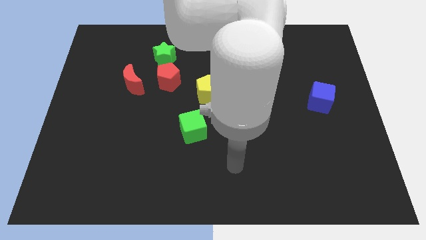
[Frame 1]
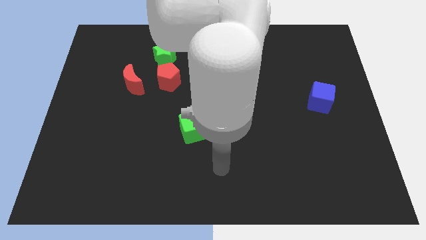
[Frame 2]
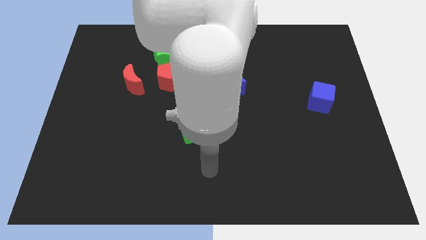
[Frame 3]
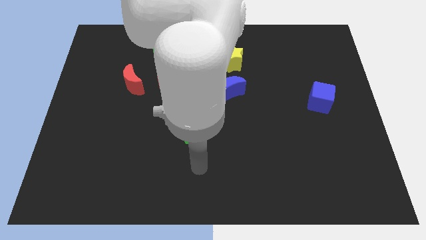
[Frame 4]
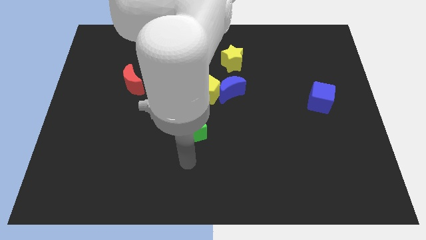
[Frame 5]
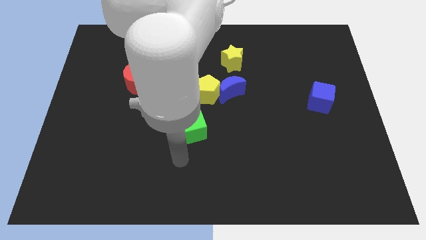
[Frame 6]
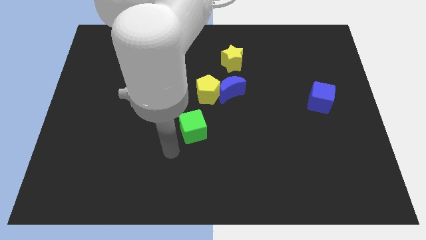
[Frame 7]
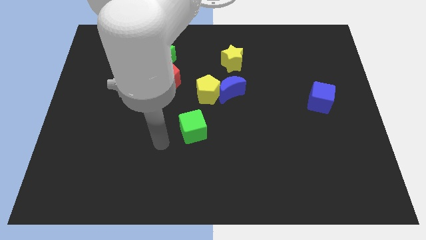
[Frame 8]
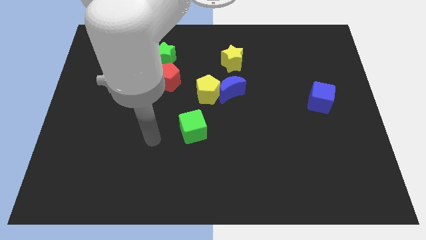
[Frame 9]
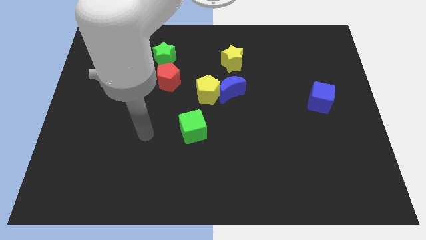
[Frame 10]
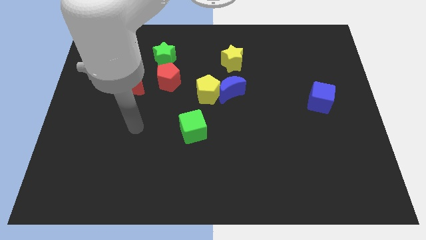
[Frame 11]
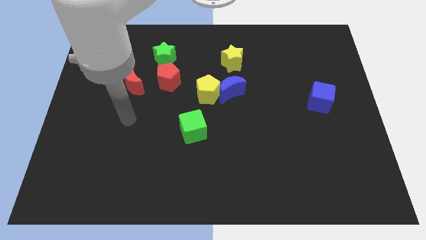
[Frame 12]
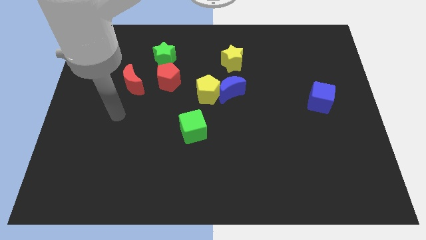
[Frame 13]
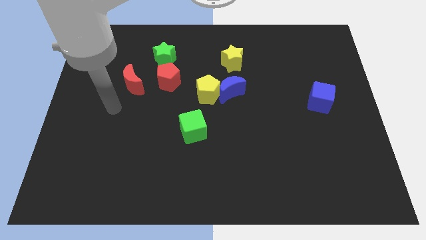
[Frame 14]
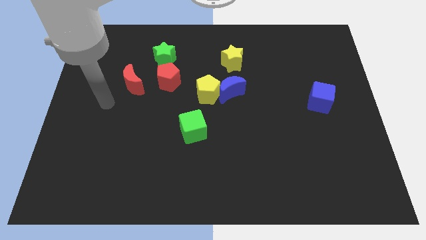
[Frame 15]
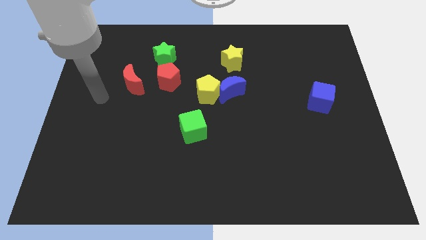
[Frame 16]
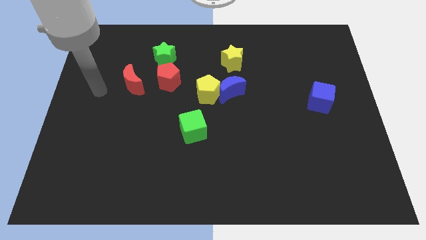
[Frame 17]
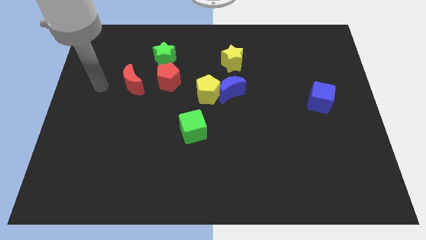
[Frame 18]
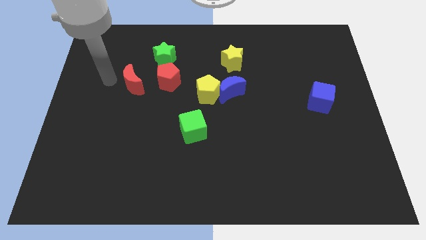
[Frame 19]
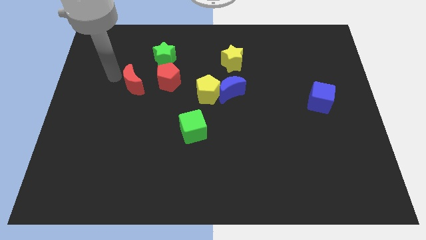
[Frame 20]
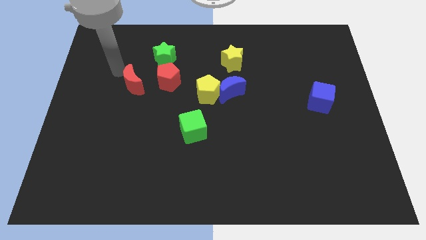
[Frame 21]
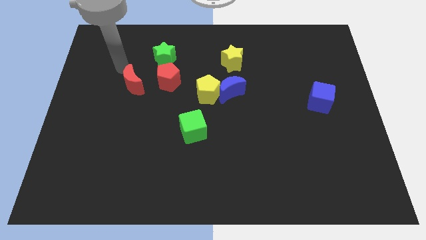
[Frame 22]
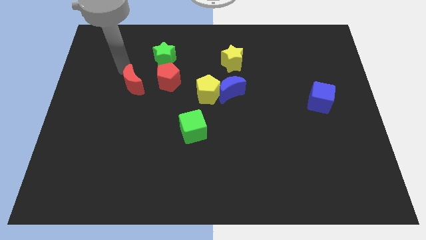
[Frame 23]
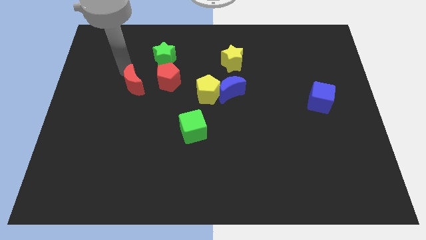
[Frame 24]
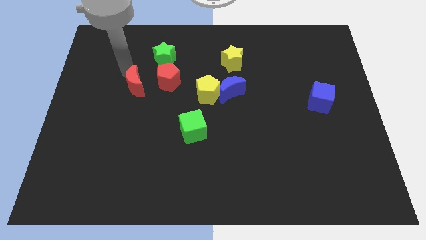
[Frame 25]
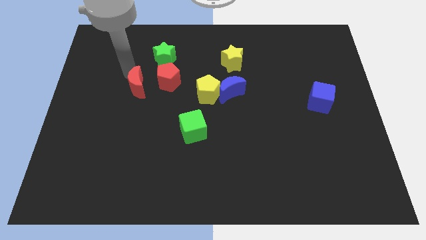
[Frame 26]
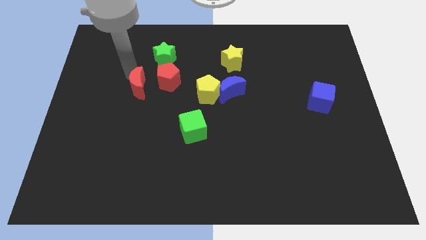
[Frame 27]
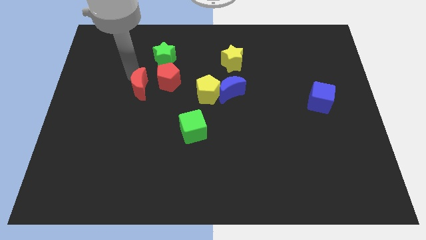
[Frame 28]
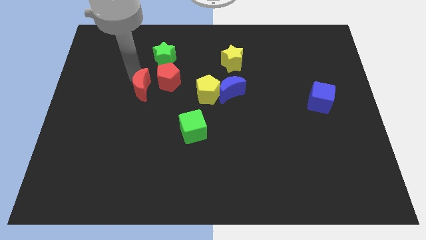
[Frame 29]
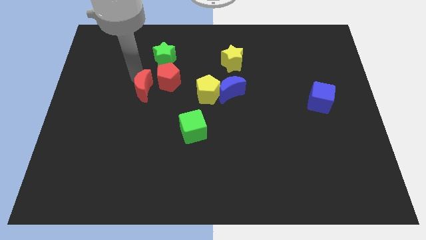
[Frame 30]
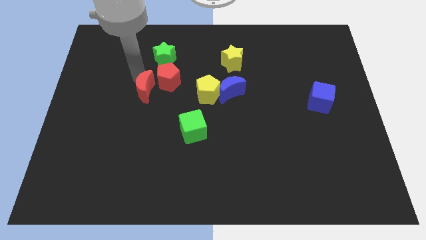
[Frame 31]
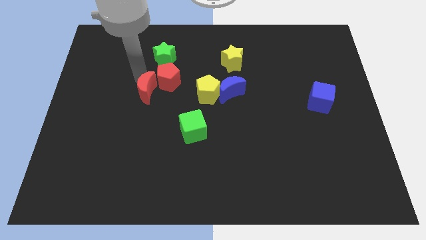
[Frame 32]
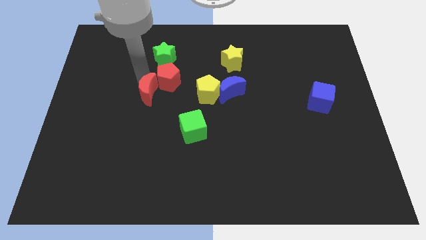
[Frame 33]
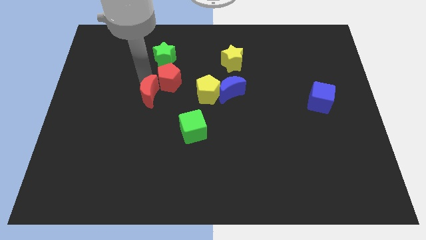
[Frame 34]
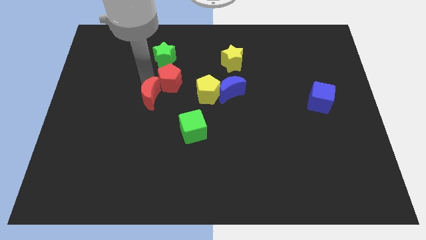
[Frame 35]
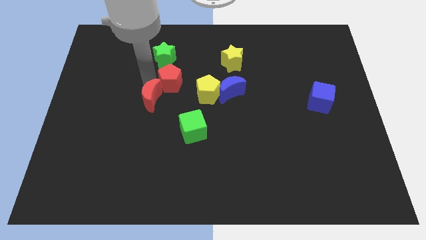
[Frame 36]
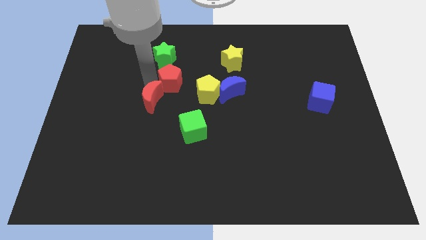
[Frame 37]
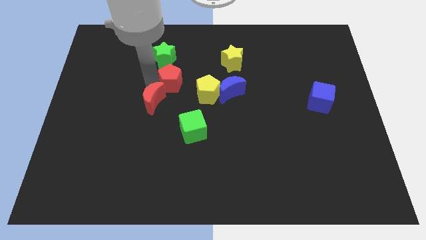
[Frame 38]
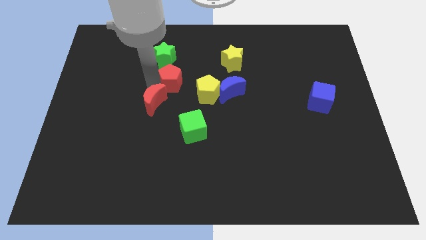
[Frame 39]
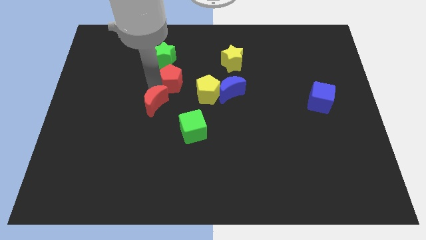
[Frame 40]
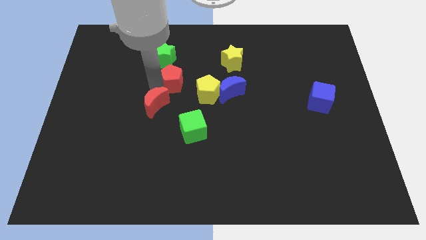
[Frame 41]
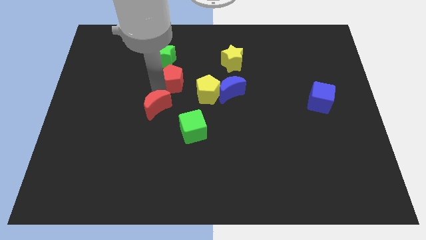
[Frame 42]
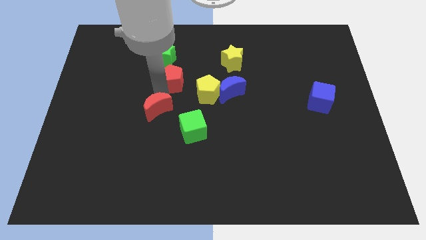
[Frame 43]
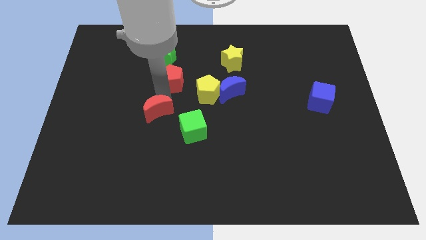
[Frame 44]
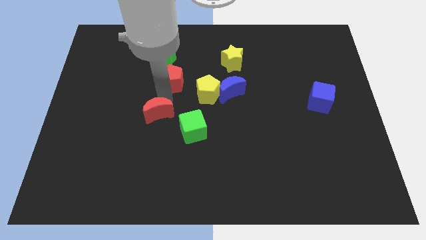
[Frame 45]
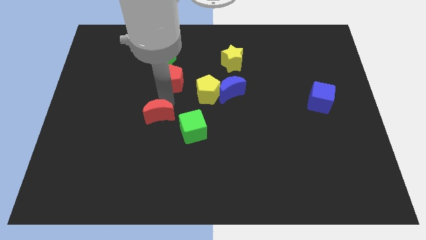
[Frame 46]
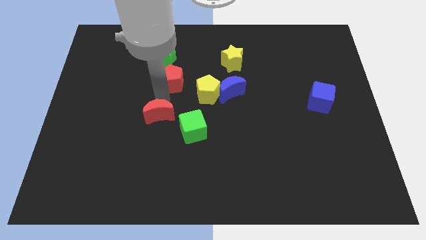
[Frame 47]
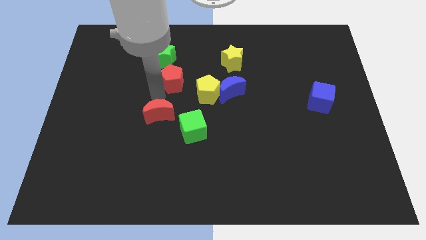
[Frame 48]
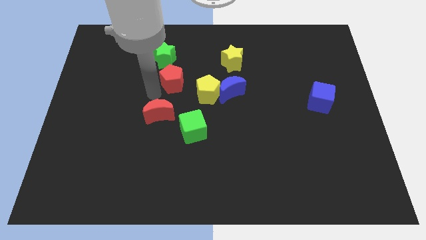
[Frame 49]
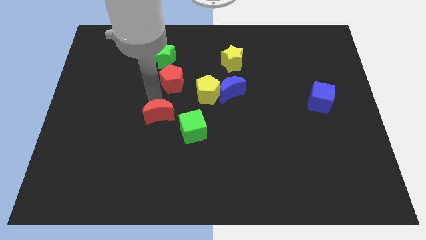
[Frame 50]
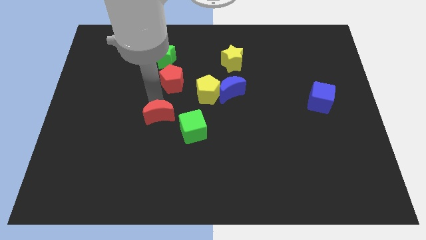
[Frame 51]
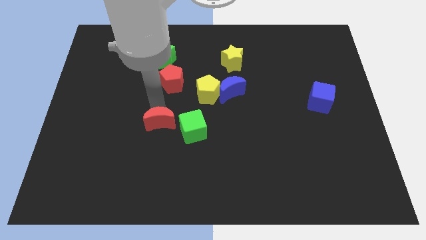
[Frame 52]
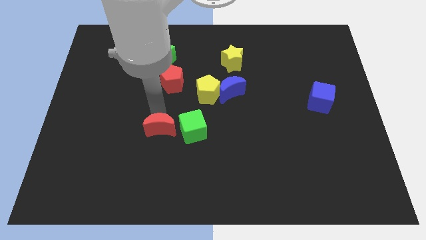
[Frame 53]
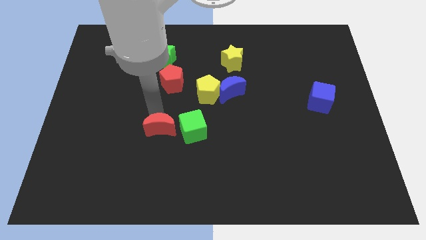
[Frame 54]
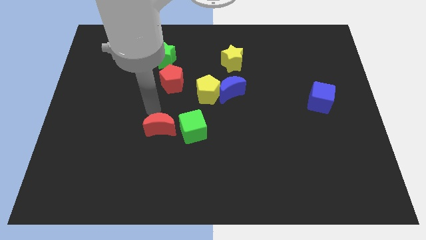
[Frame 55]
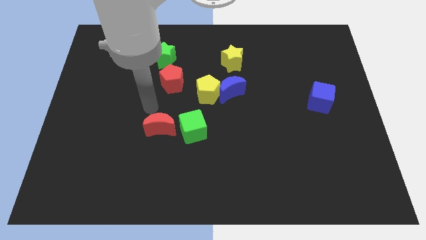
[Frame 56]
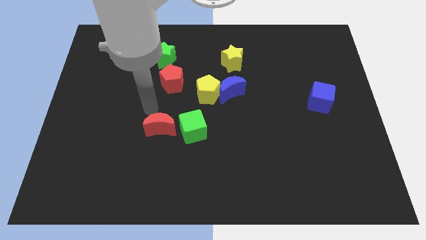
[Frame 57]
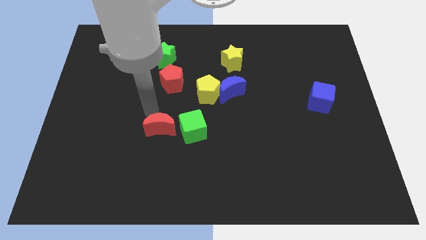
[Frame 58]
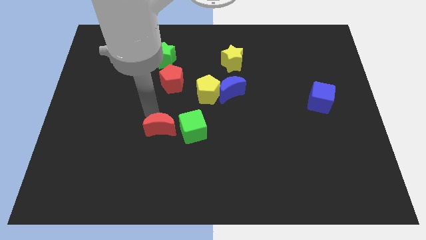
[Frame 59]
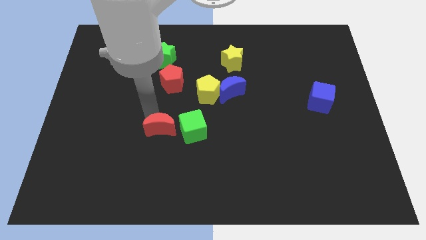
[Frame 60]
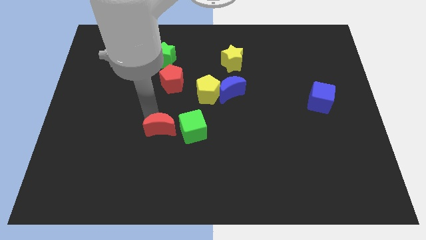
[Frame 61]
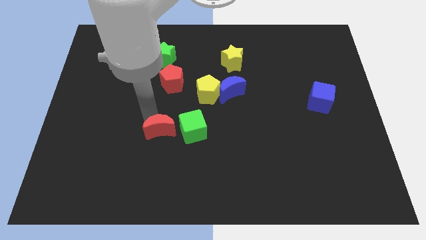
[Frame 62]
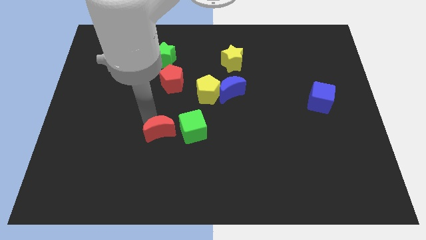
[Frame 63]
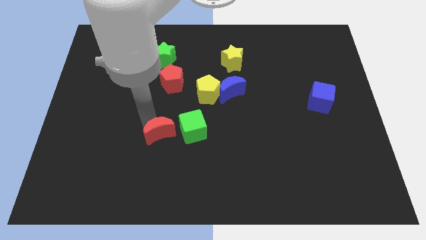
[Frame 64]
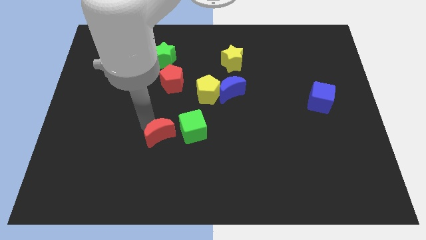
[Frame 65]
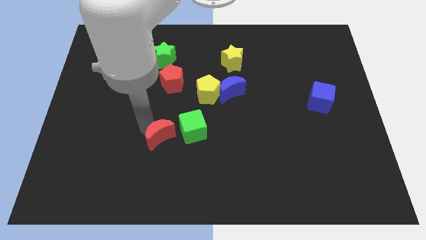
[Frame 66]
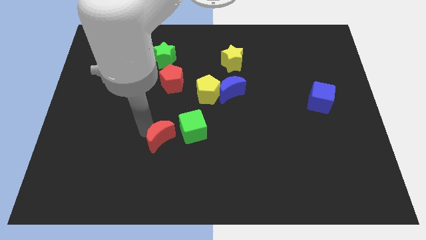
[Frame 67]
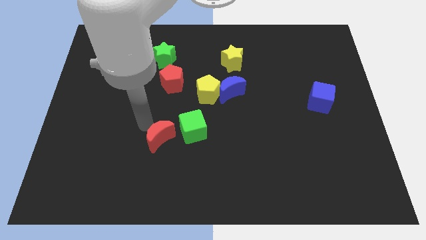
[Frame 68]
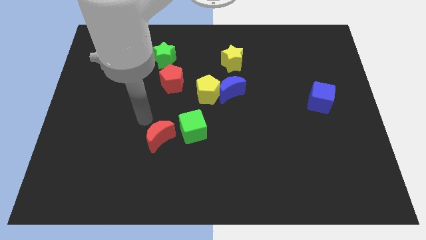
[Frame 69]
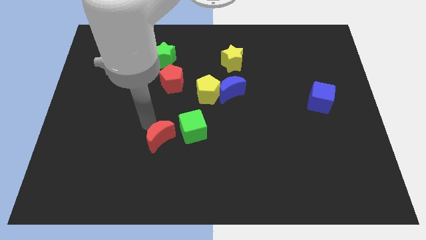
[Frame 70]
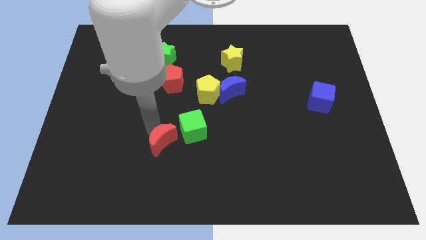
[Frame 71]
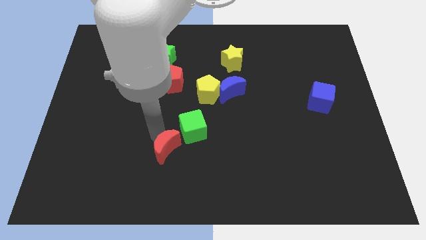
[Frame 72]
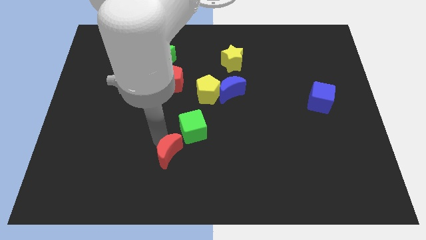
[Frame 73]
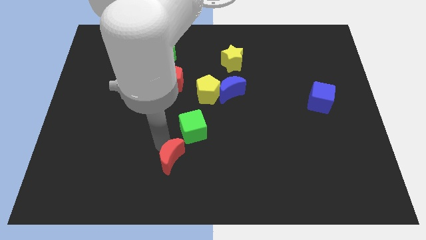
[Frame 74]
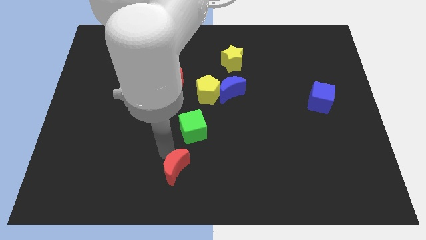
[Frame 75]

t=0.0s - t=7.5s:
move the red moon to the bottom side
